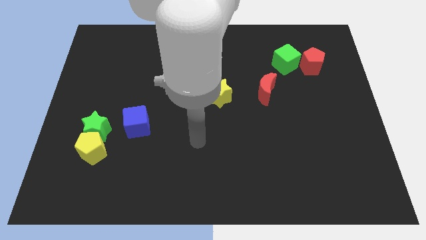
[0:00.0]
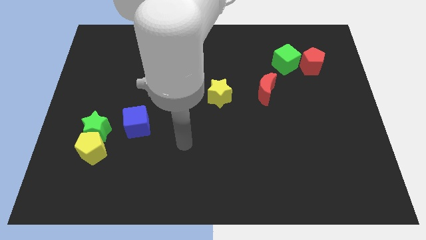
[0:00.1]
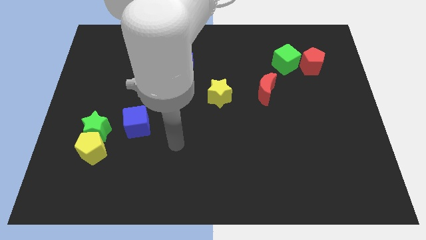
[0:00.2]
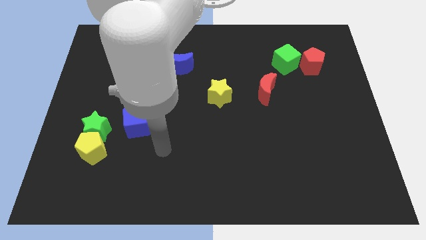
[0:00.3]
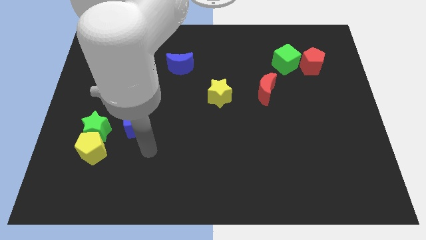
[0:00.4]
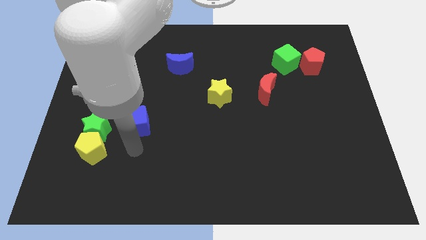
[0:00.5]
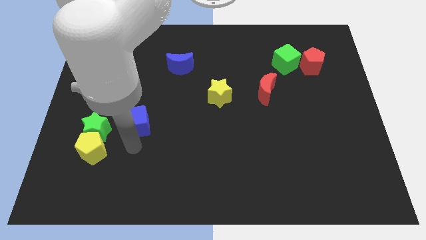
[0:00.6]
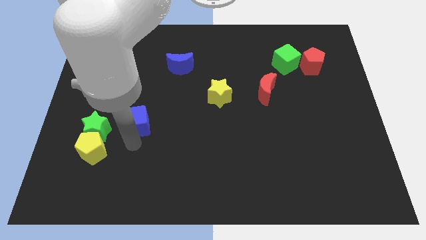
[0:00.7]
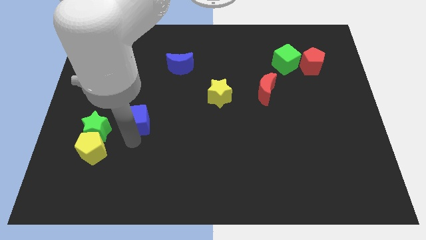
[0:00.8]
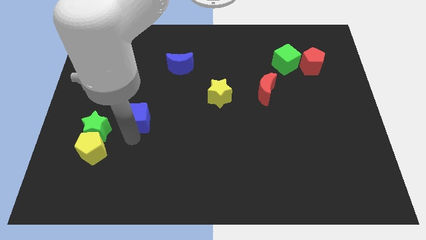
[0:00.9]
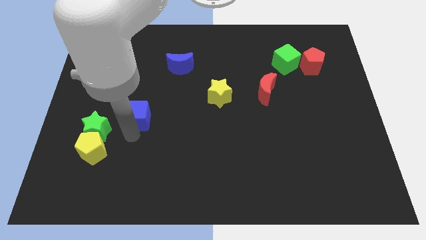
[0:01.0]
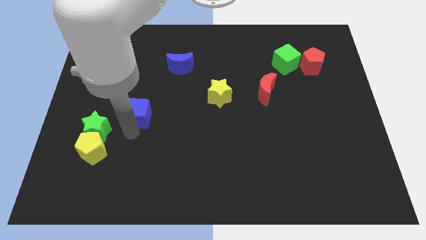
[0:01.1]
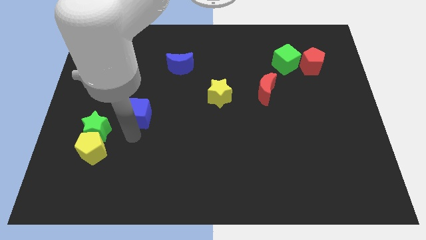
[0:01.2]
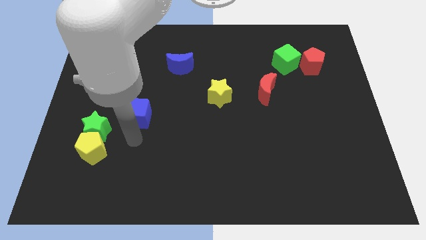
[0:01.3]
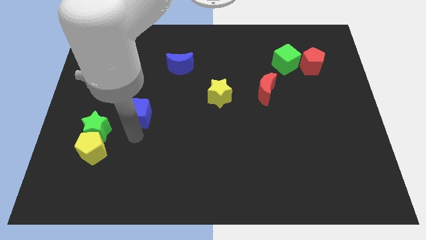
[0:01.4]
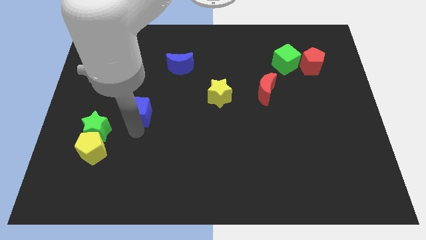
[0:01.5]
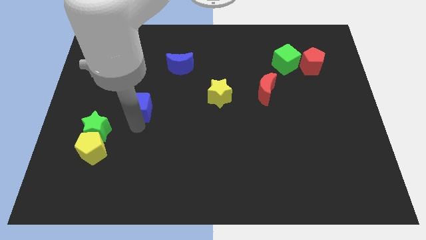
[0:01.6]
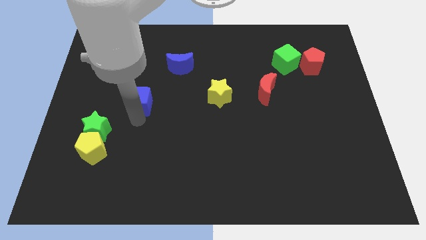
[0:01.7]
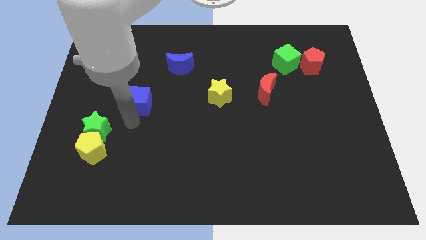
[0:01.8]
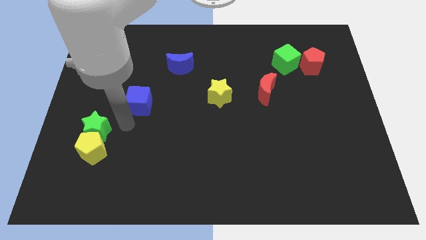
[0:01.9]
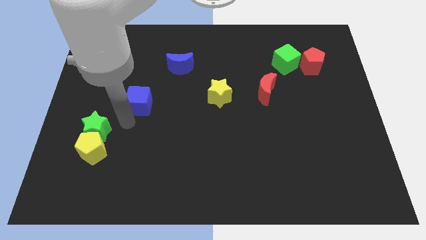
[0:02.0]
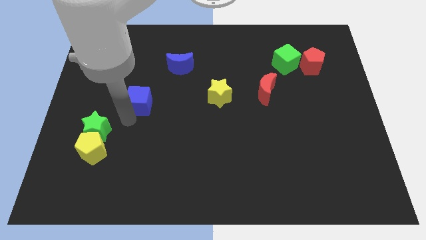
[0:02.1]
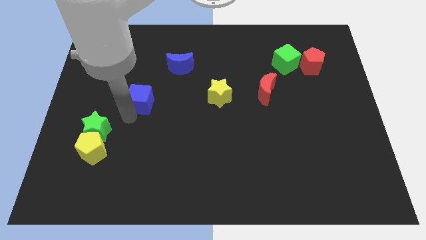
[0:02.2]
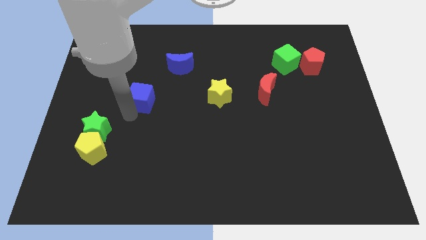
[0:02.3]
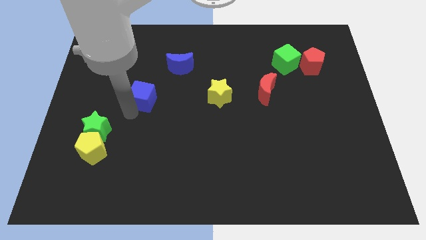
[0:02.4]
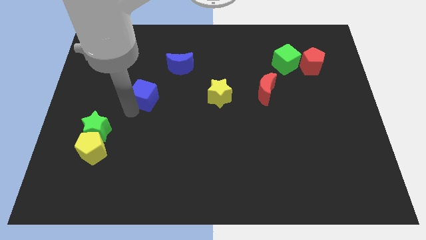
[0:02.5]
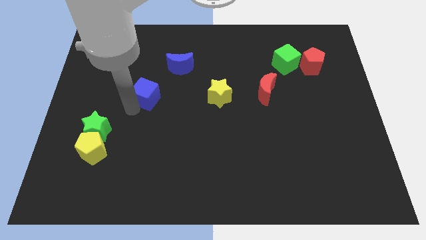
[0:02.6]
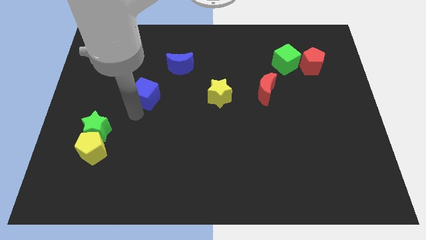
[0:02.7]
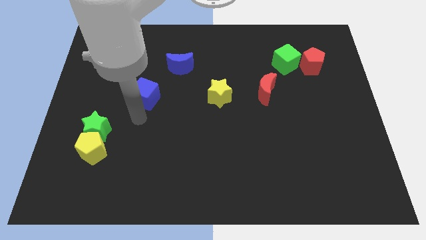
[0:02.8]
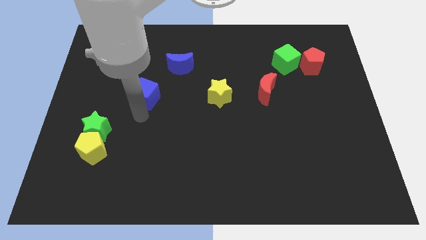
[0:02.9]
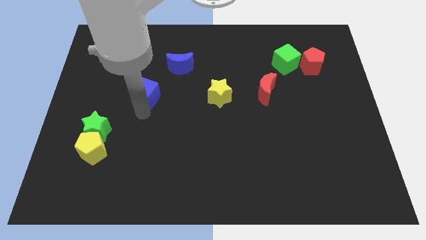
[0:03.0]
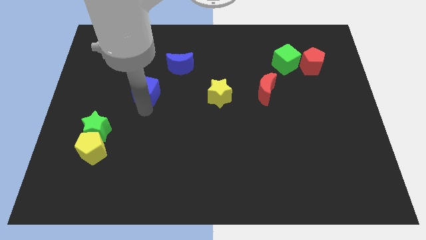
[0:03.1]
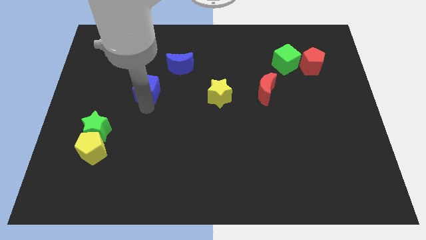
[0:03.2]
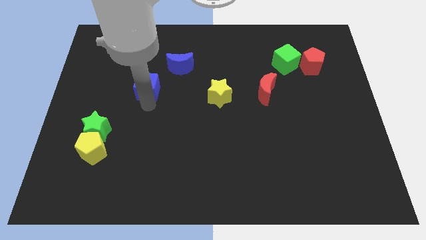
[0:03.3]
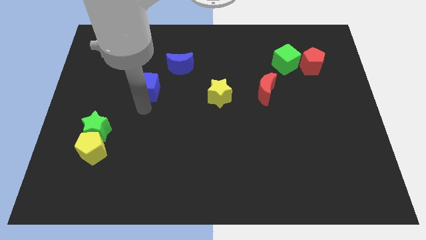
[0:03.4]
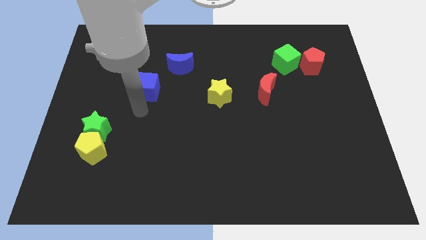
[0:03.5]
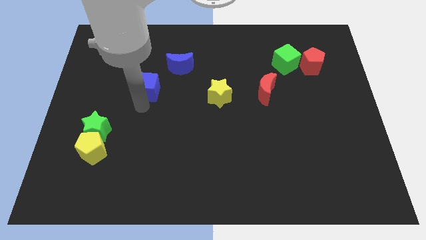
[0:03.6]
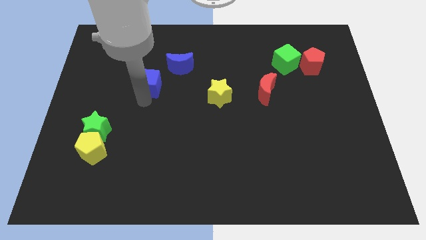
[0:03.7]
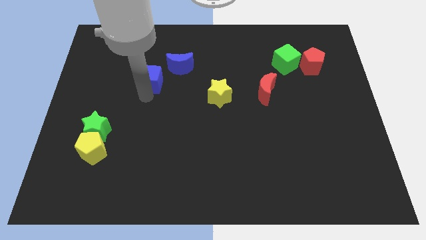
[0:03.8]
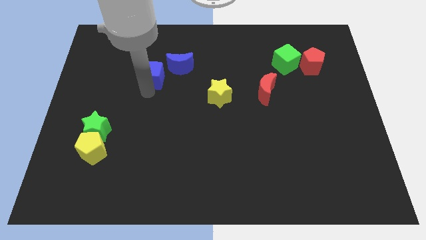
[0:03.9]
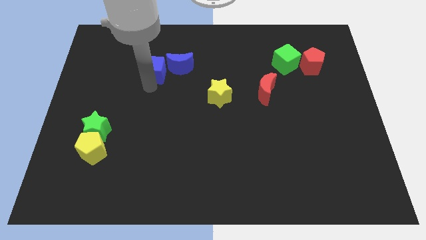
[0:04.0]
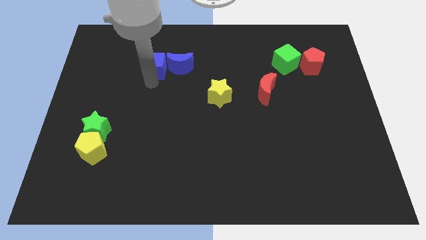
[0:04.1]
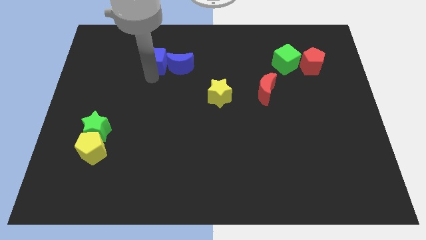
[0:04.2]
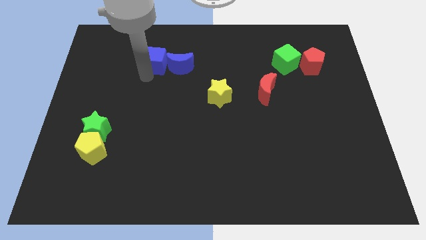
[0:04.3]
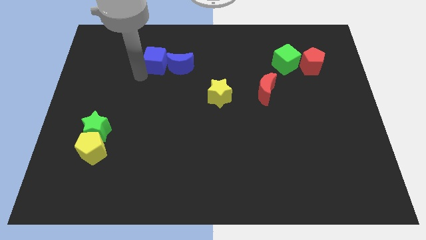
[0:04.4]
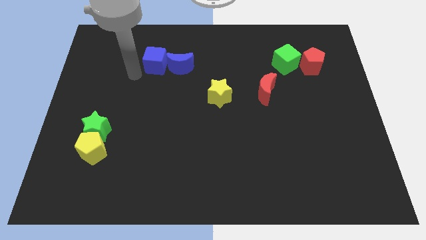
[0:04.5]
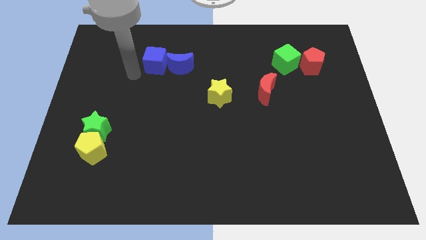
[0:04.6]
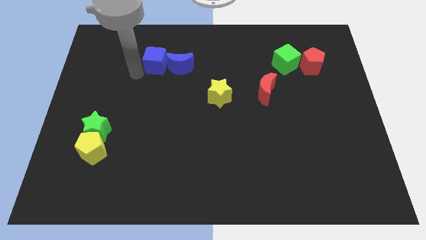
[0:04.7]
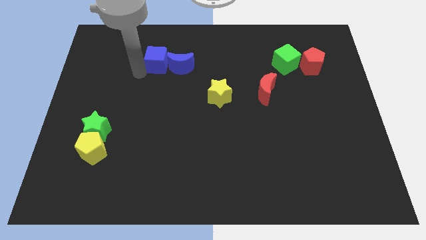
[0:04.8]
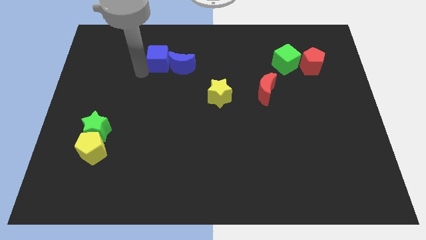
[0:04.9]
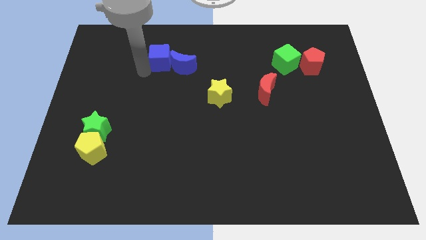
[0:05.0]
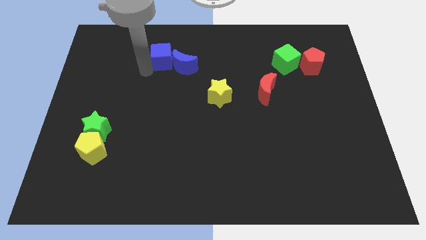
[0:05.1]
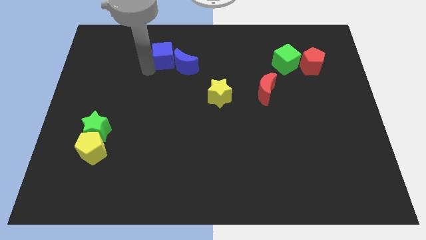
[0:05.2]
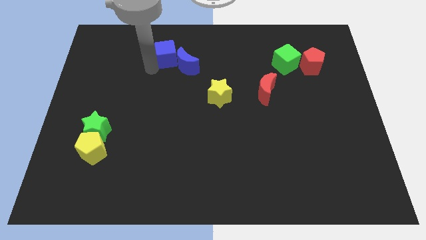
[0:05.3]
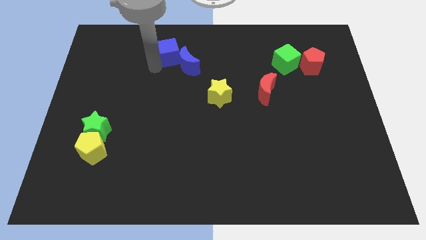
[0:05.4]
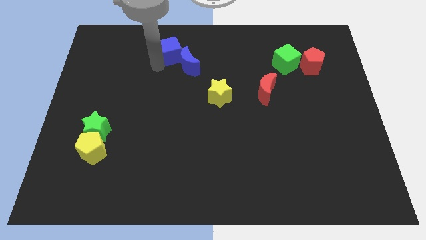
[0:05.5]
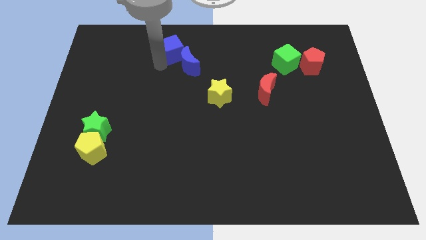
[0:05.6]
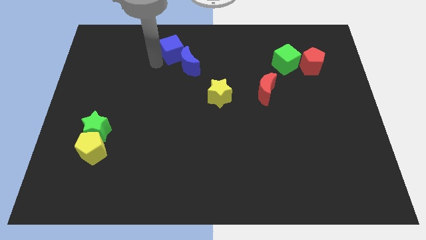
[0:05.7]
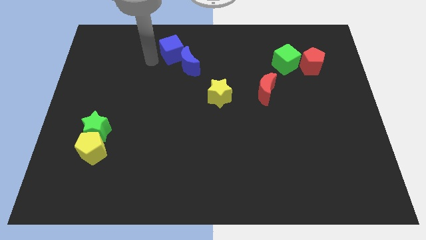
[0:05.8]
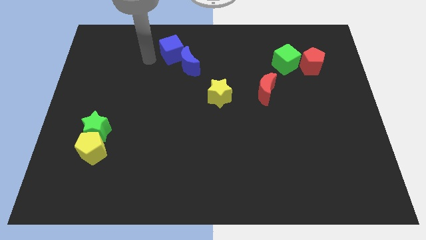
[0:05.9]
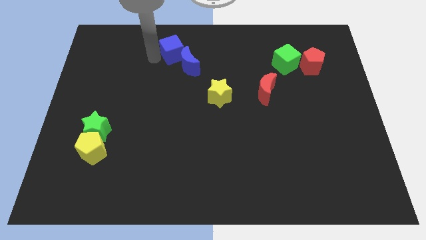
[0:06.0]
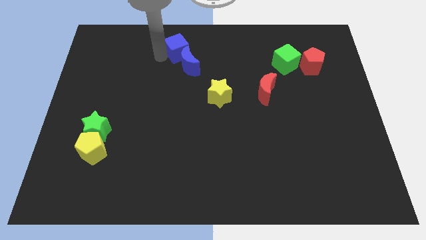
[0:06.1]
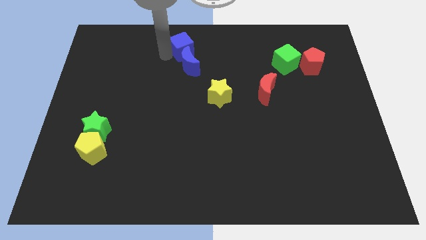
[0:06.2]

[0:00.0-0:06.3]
move the blue cube to the towards your base
